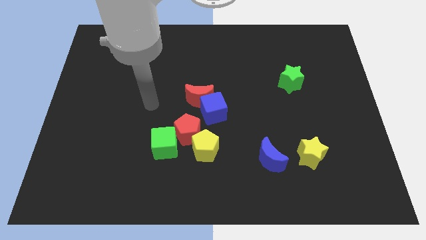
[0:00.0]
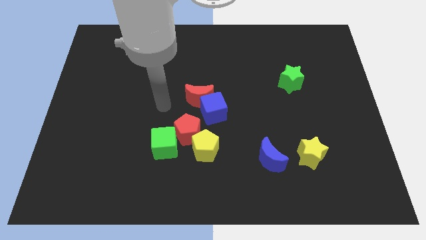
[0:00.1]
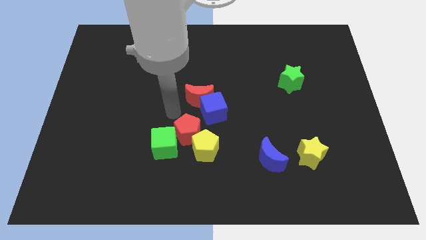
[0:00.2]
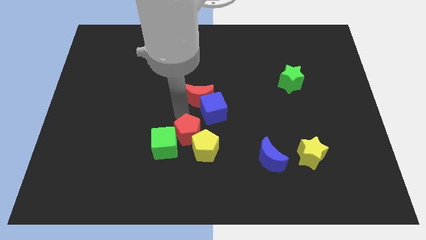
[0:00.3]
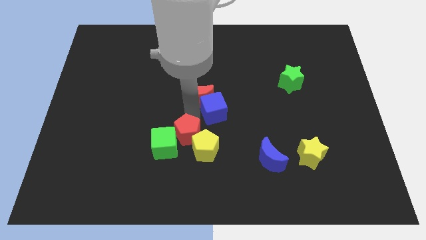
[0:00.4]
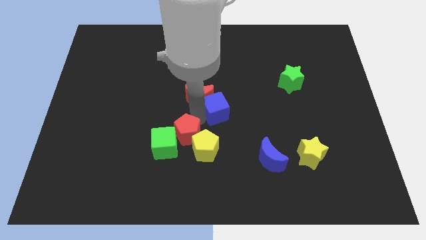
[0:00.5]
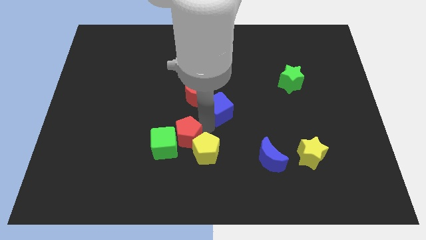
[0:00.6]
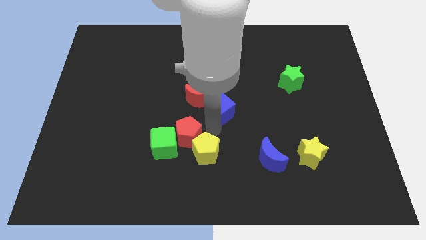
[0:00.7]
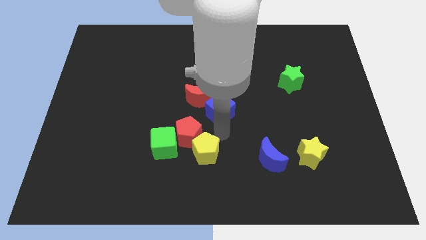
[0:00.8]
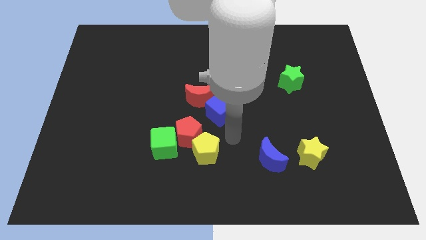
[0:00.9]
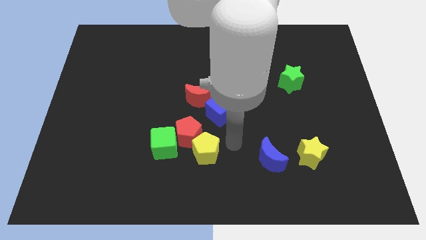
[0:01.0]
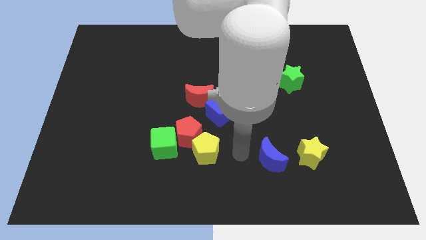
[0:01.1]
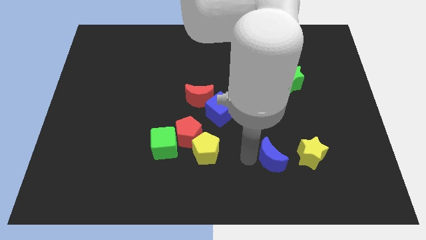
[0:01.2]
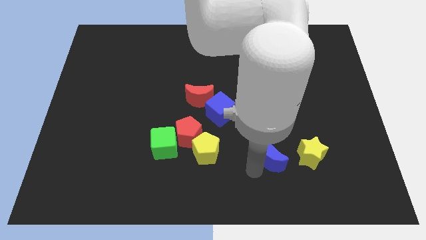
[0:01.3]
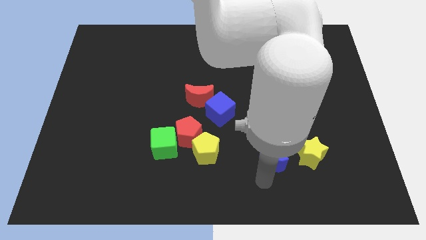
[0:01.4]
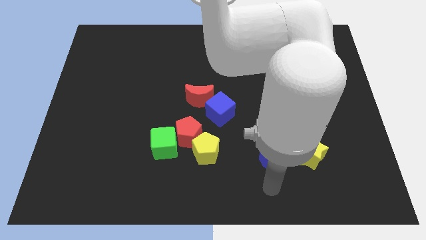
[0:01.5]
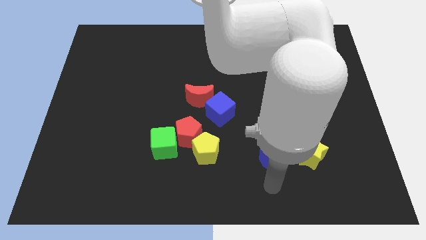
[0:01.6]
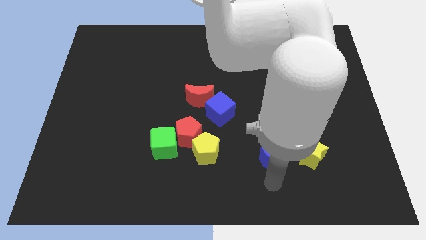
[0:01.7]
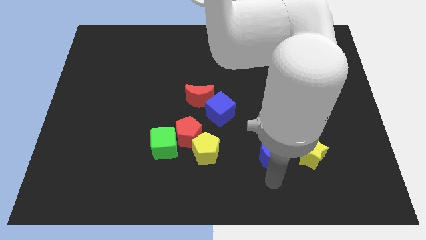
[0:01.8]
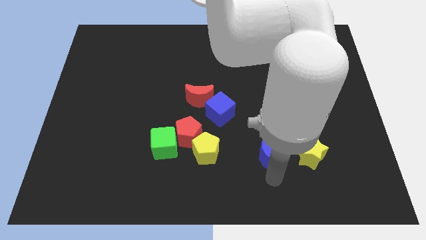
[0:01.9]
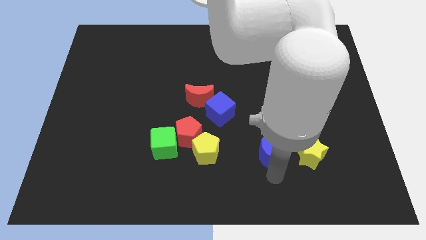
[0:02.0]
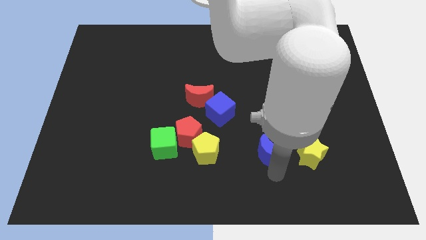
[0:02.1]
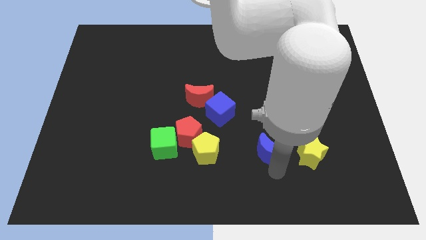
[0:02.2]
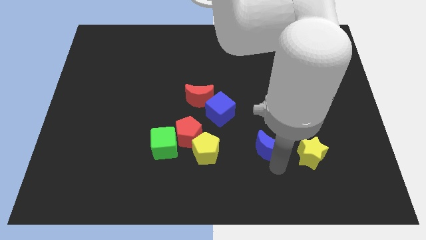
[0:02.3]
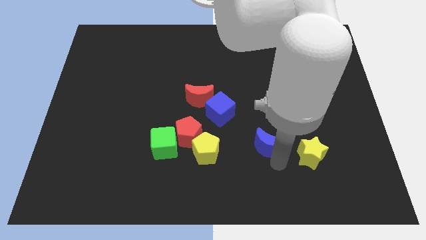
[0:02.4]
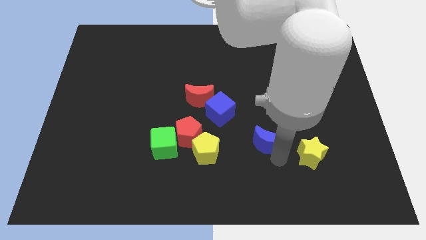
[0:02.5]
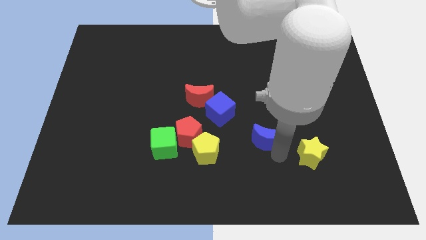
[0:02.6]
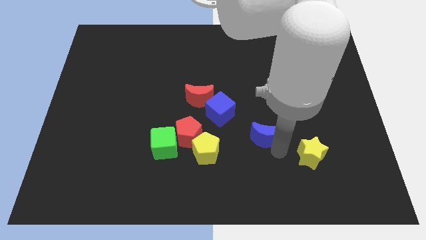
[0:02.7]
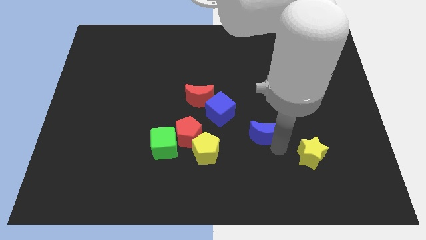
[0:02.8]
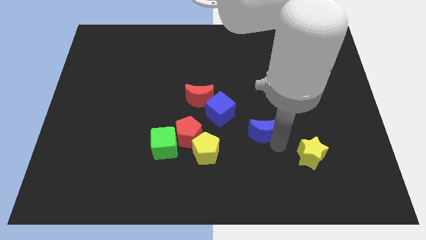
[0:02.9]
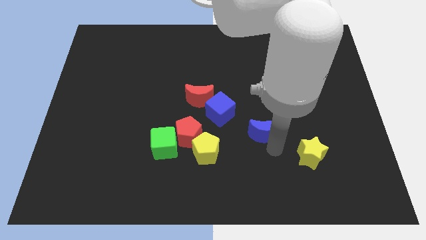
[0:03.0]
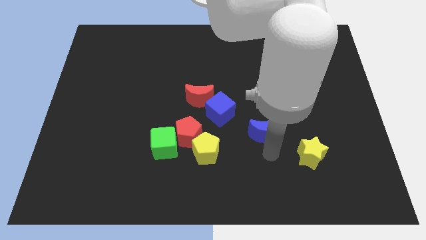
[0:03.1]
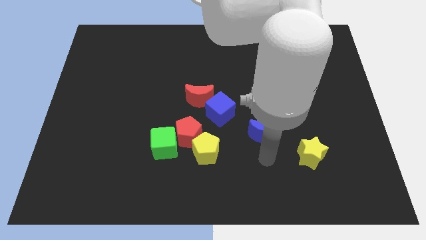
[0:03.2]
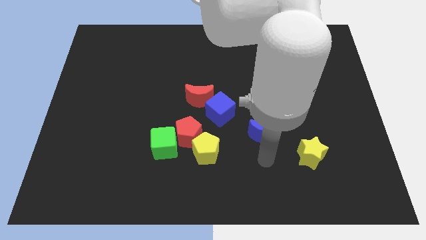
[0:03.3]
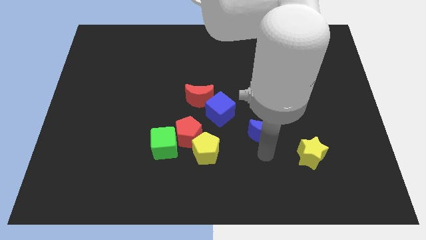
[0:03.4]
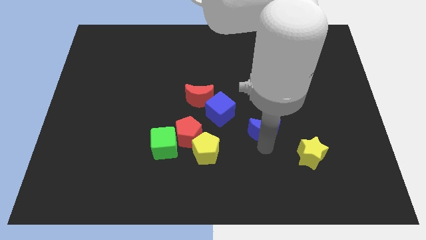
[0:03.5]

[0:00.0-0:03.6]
slightly push the blue moon up

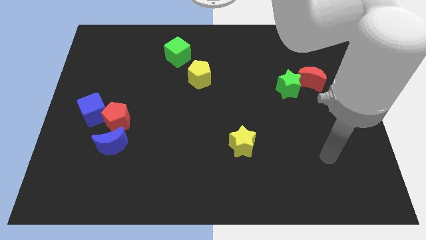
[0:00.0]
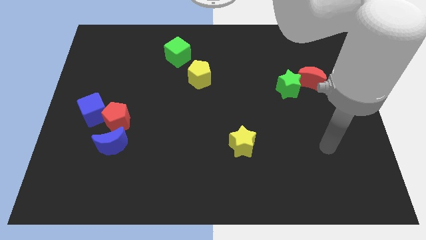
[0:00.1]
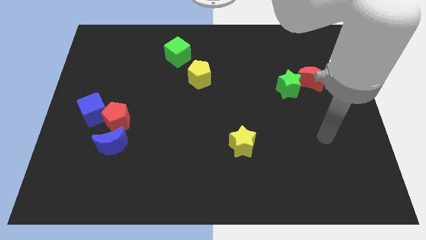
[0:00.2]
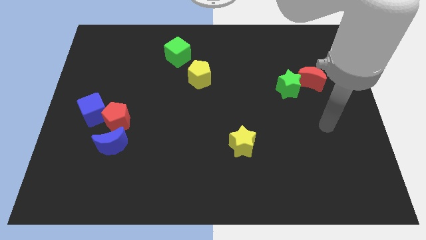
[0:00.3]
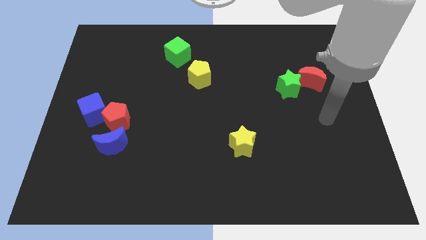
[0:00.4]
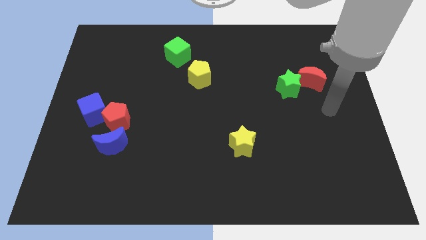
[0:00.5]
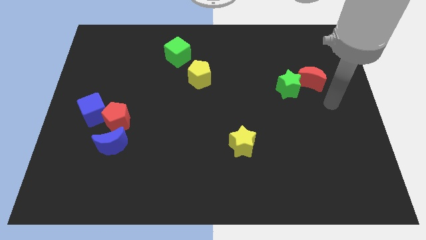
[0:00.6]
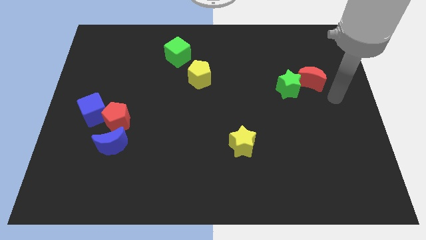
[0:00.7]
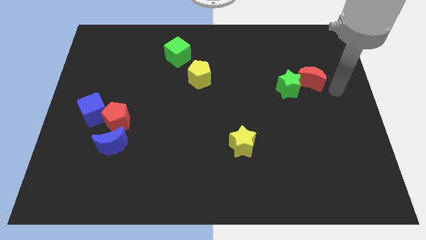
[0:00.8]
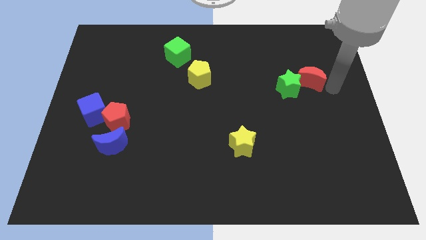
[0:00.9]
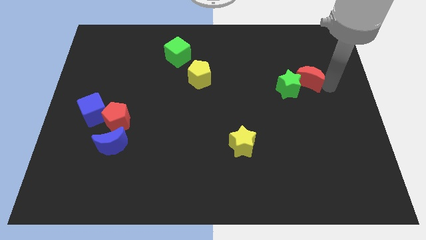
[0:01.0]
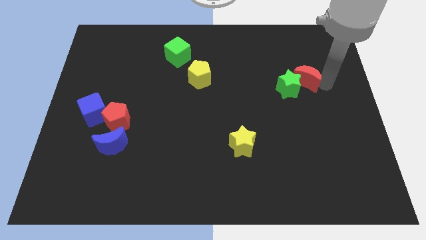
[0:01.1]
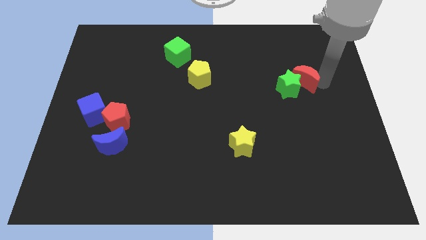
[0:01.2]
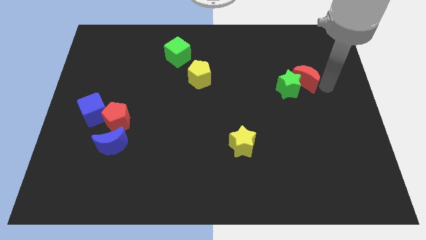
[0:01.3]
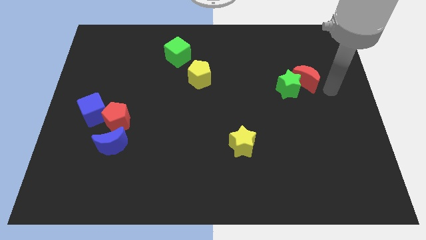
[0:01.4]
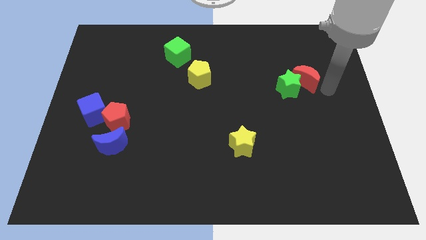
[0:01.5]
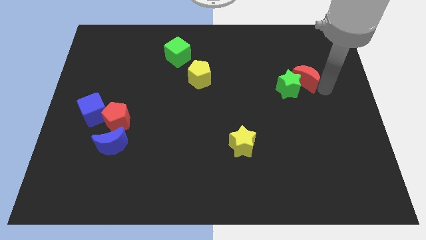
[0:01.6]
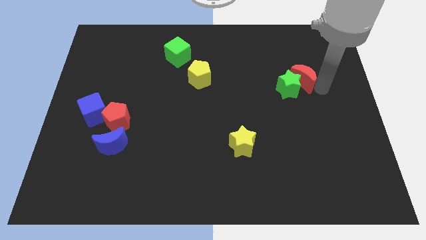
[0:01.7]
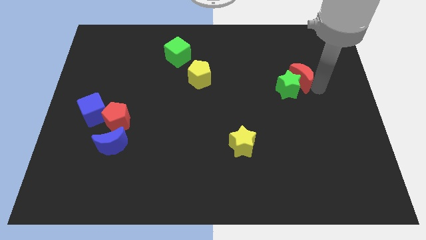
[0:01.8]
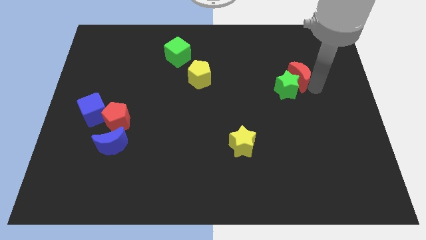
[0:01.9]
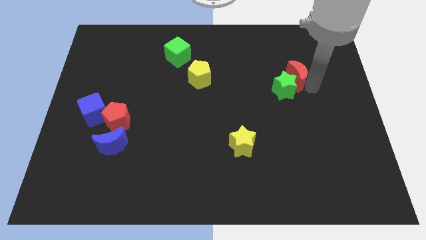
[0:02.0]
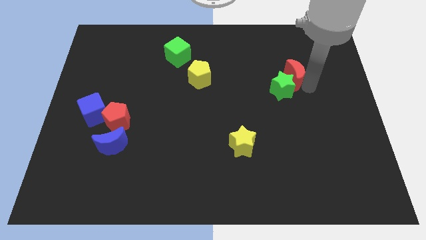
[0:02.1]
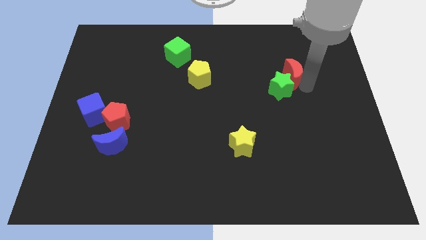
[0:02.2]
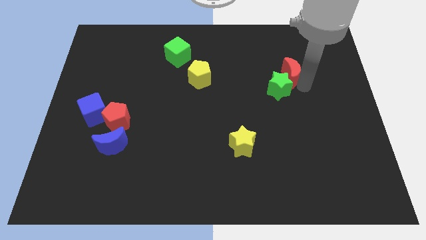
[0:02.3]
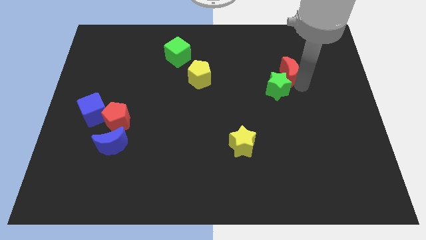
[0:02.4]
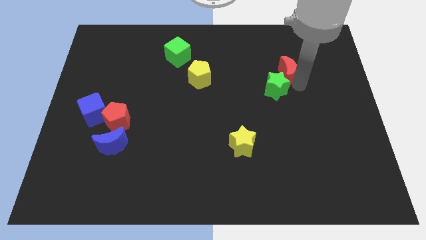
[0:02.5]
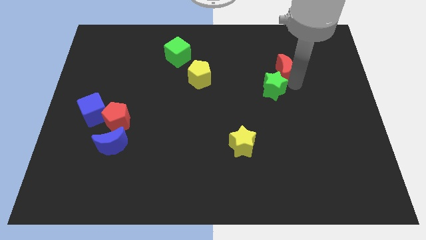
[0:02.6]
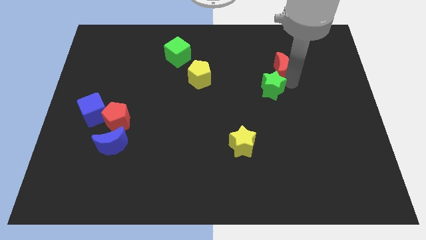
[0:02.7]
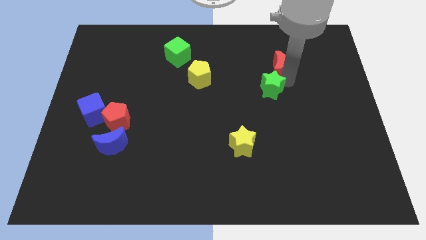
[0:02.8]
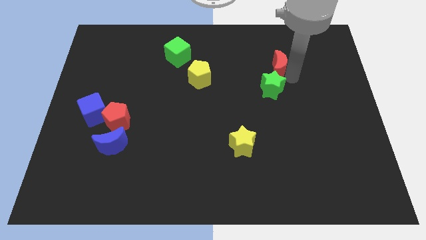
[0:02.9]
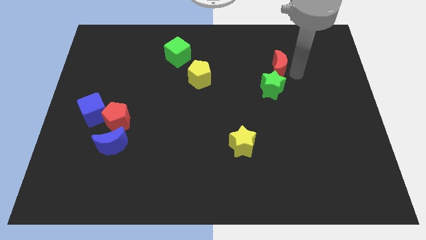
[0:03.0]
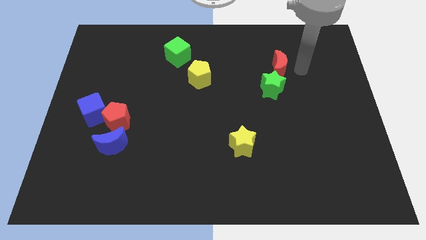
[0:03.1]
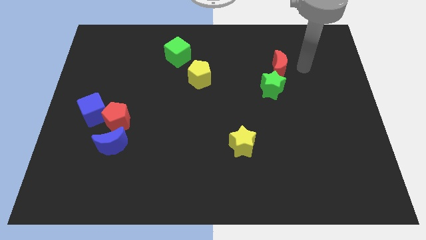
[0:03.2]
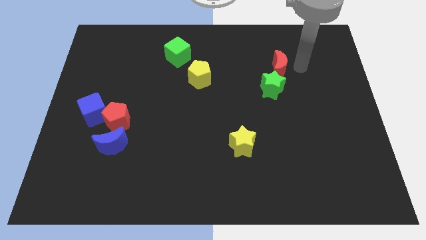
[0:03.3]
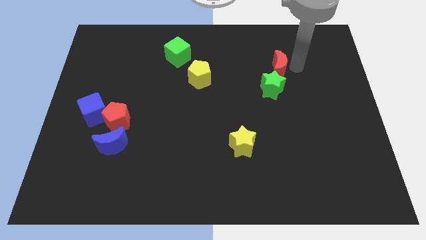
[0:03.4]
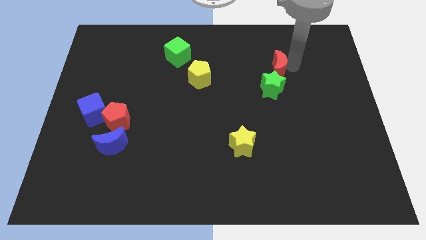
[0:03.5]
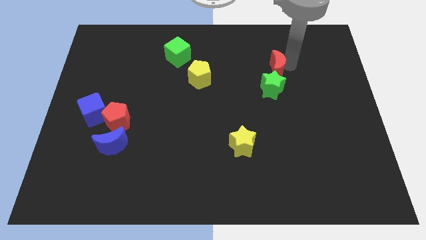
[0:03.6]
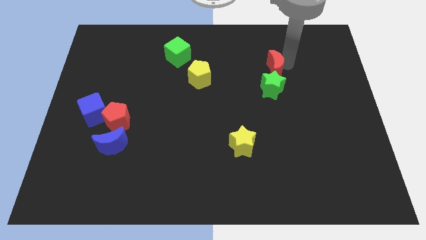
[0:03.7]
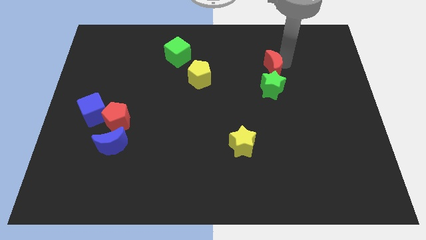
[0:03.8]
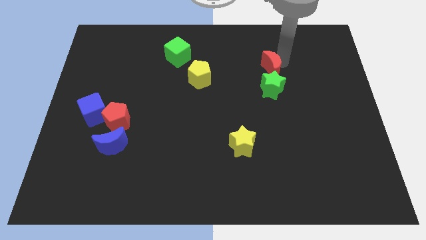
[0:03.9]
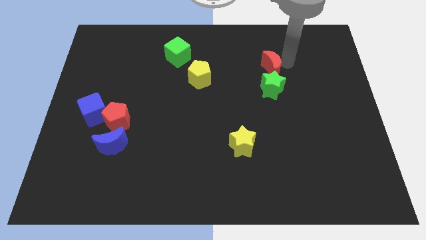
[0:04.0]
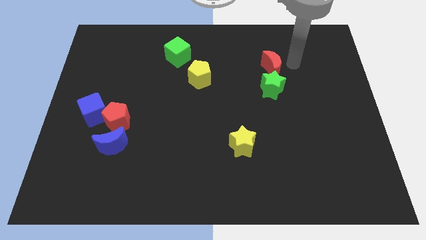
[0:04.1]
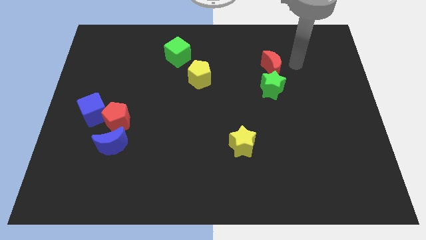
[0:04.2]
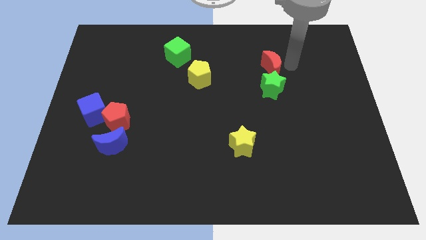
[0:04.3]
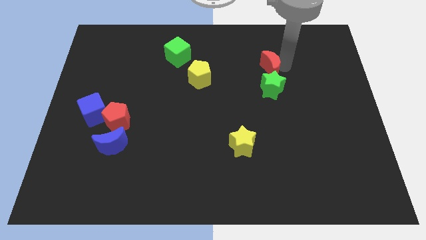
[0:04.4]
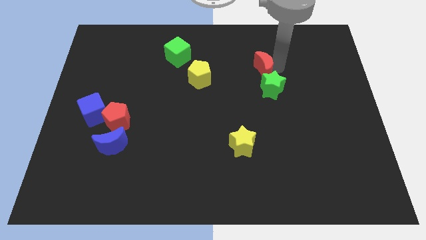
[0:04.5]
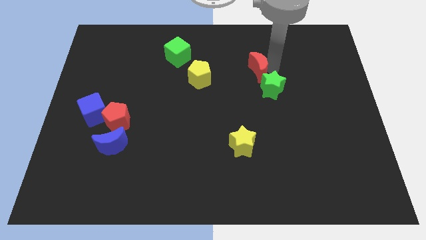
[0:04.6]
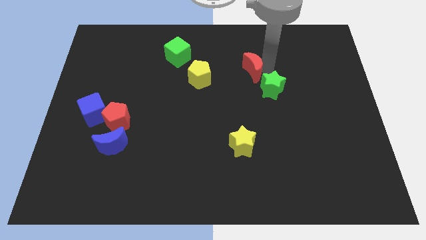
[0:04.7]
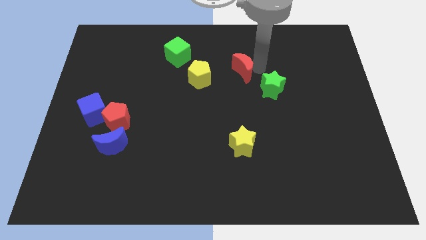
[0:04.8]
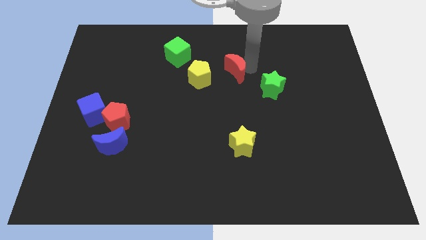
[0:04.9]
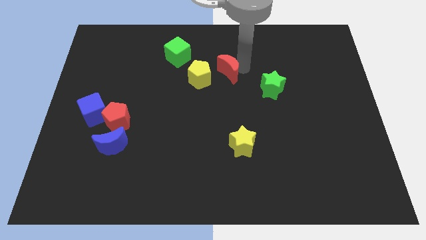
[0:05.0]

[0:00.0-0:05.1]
push the red moon left
